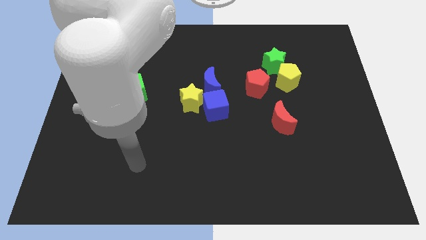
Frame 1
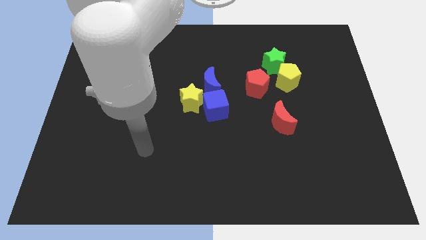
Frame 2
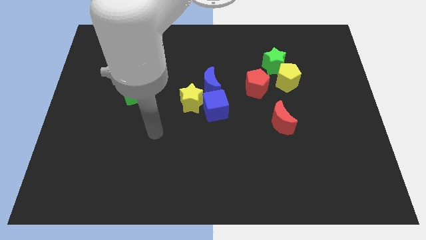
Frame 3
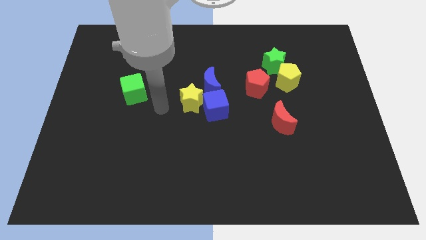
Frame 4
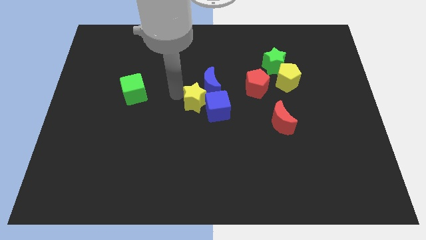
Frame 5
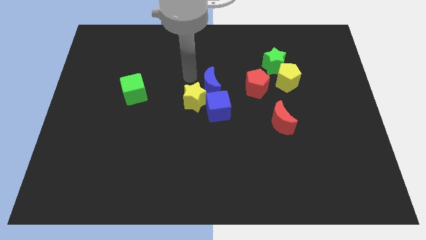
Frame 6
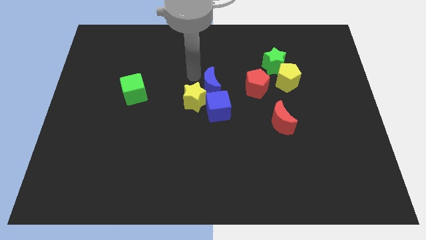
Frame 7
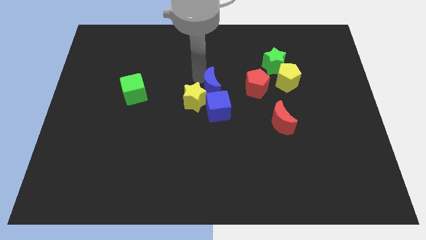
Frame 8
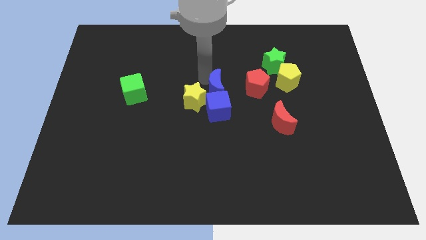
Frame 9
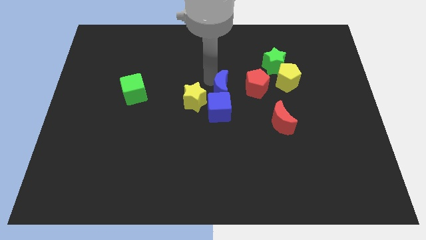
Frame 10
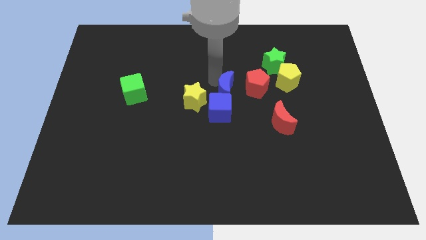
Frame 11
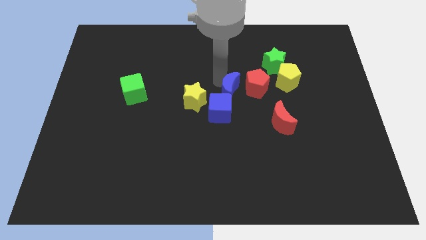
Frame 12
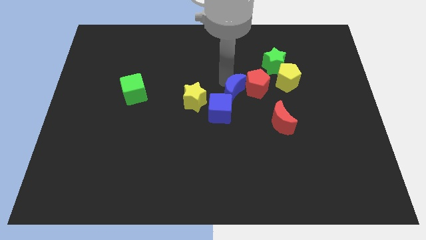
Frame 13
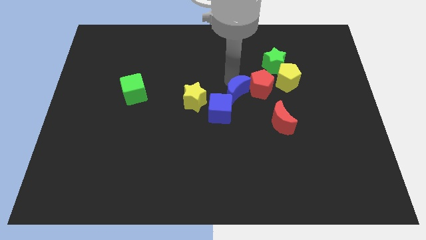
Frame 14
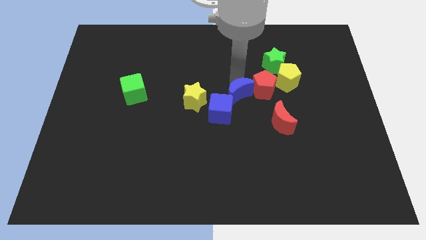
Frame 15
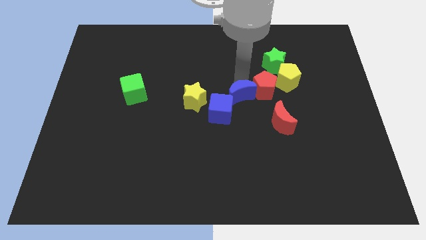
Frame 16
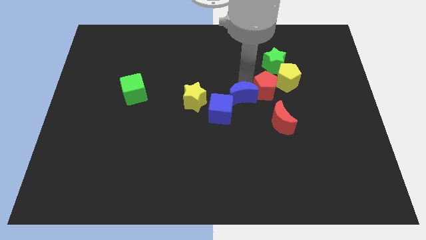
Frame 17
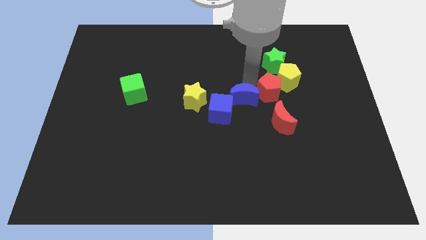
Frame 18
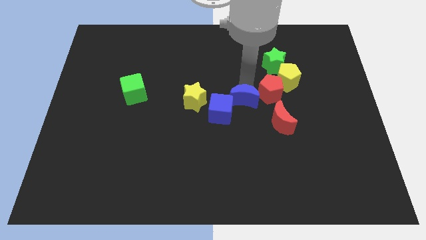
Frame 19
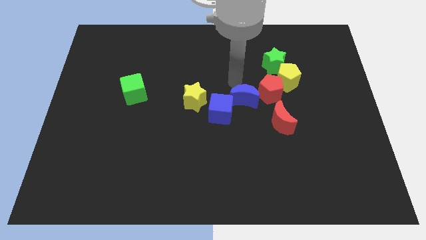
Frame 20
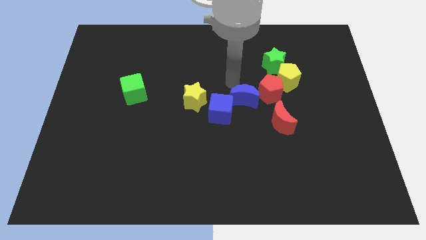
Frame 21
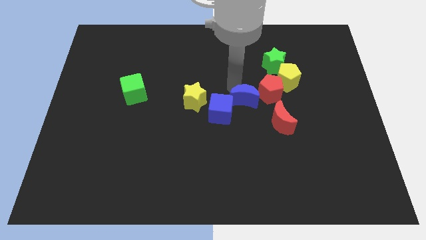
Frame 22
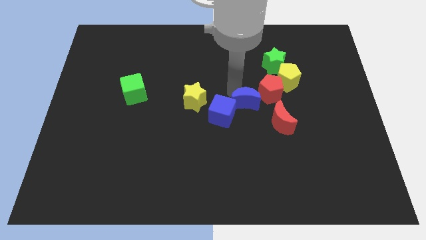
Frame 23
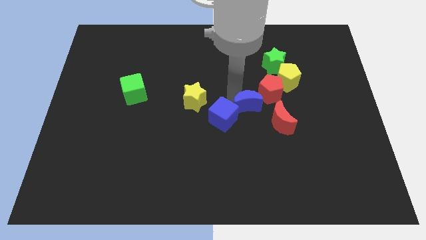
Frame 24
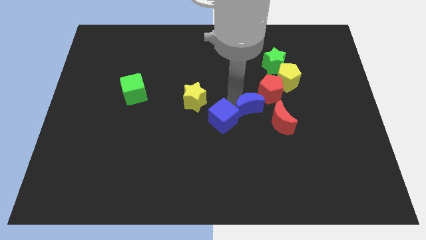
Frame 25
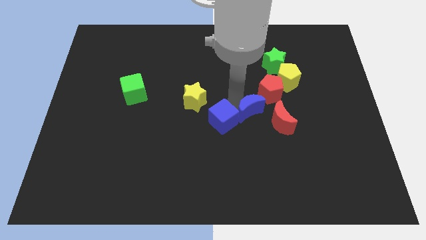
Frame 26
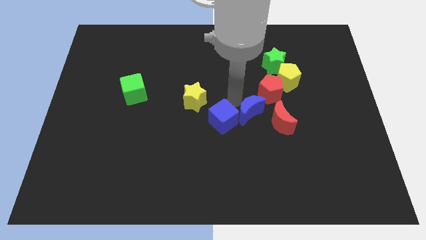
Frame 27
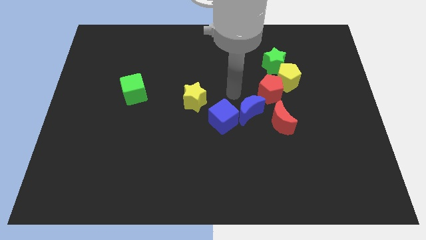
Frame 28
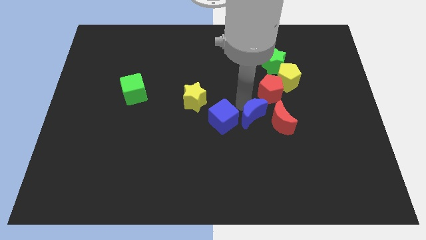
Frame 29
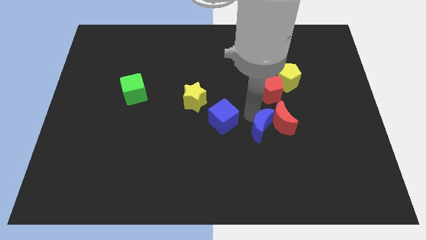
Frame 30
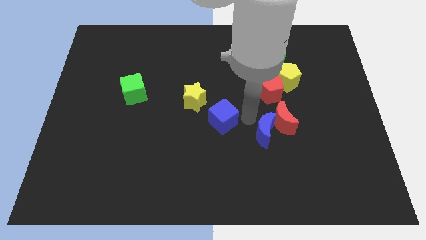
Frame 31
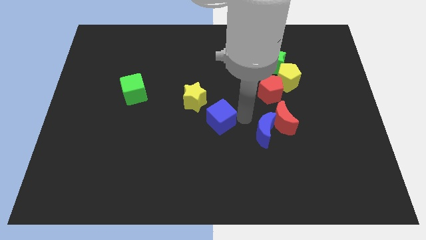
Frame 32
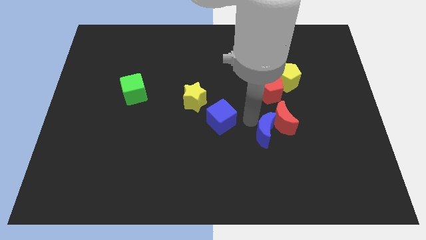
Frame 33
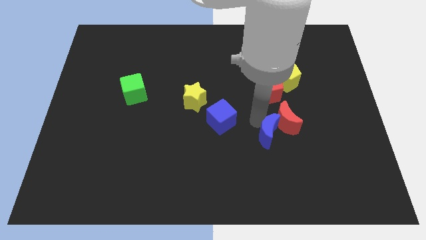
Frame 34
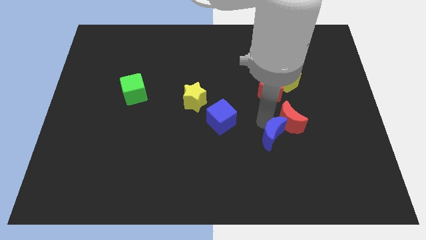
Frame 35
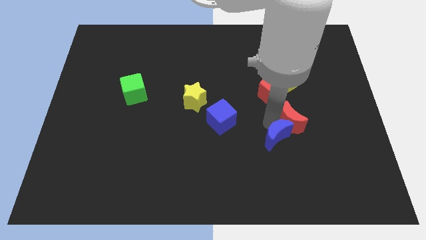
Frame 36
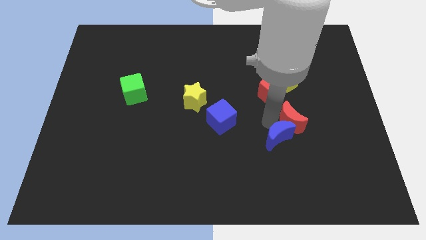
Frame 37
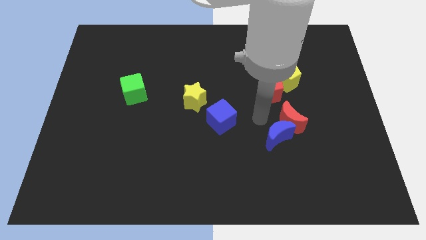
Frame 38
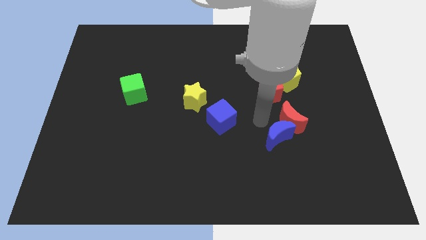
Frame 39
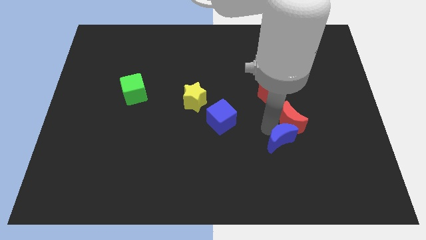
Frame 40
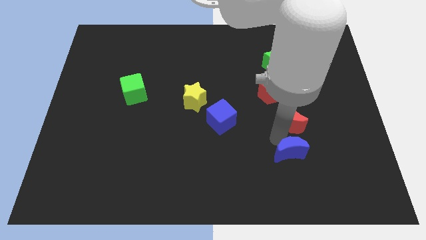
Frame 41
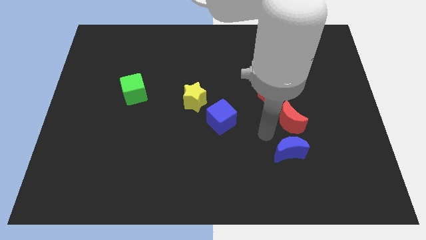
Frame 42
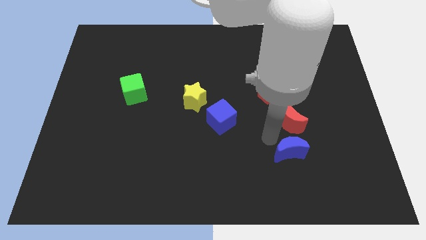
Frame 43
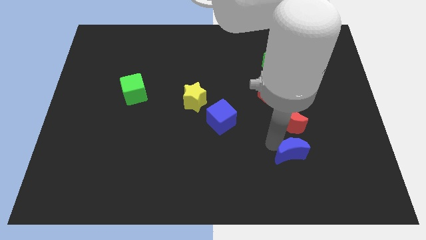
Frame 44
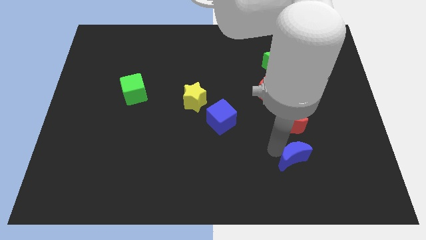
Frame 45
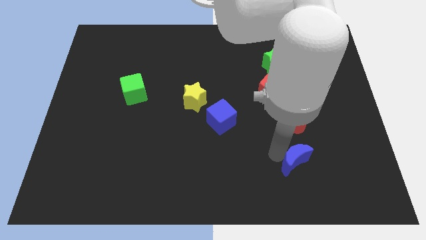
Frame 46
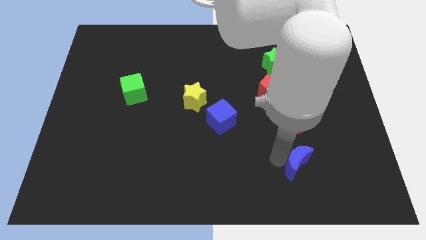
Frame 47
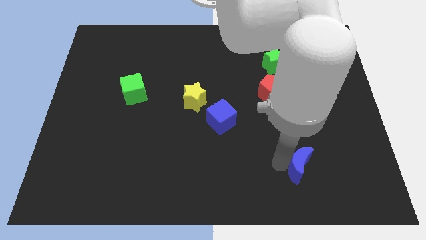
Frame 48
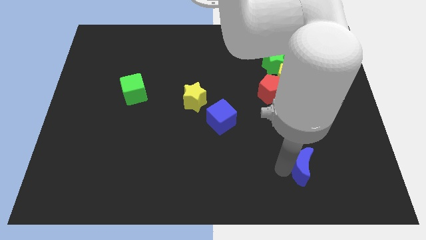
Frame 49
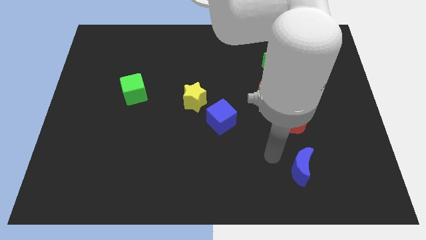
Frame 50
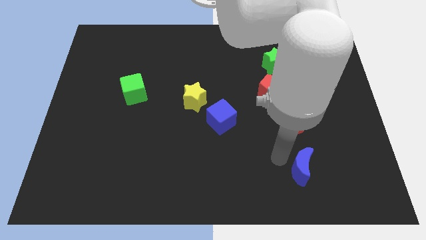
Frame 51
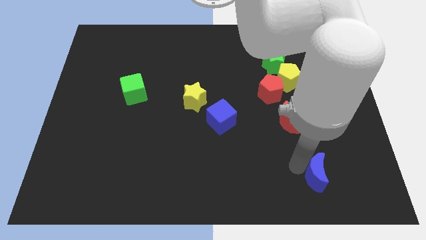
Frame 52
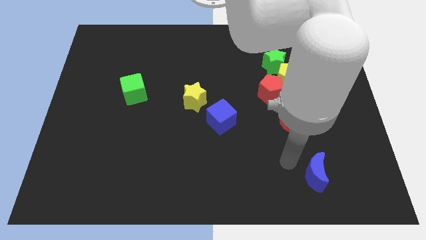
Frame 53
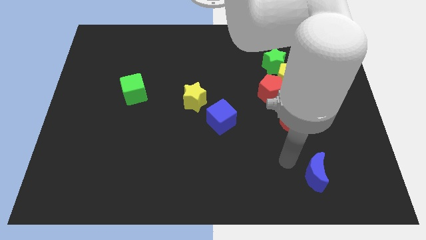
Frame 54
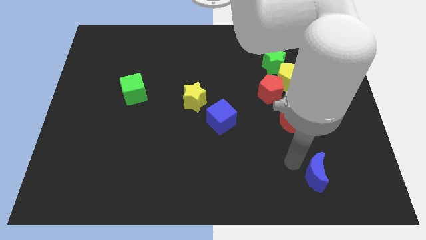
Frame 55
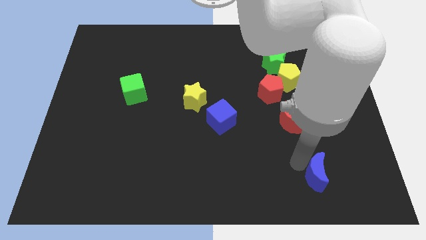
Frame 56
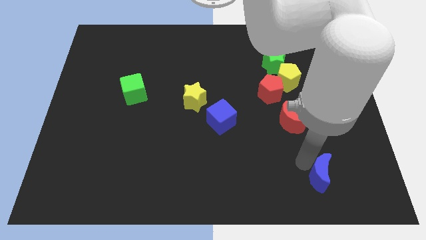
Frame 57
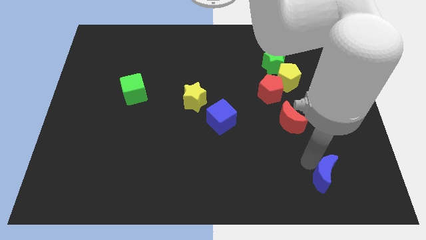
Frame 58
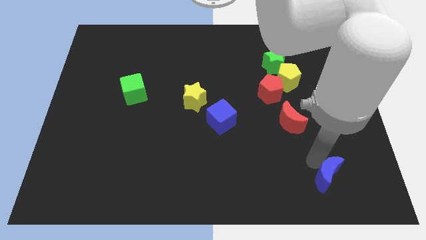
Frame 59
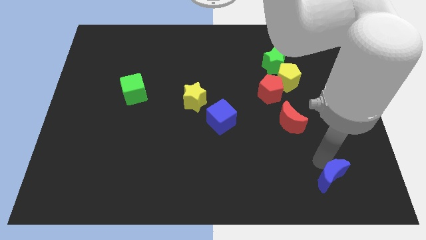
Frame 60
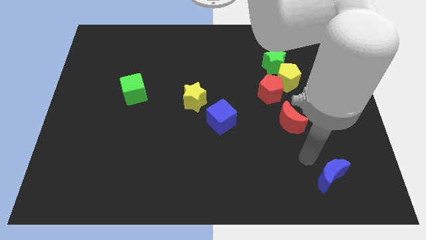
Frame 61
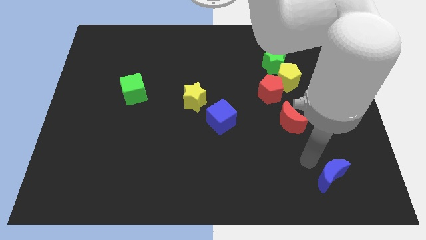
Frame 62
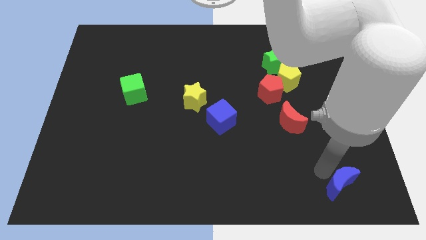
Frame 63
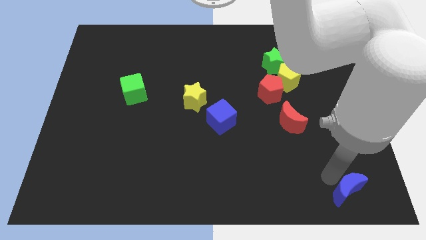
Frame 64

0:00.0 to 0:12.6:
slide the blue moon to the lower right corner
